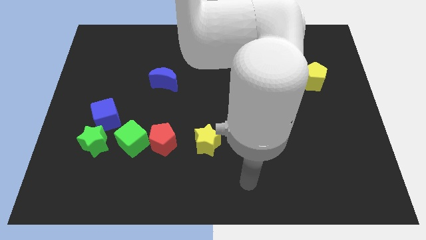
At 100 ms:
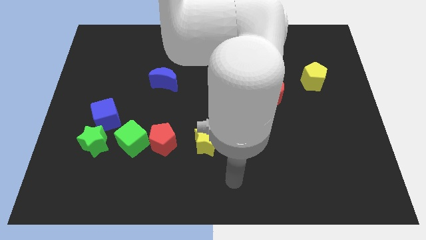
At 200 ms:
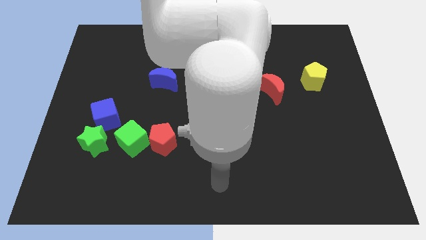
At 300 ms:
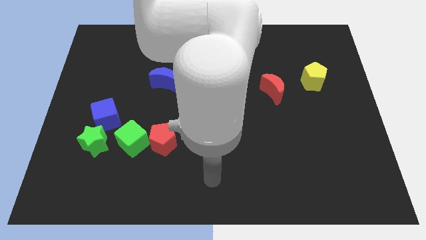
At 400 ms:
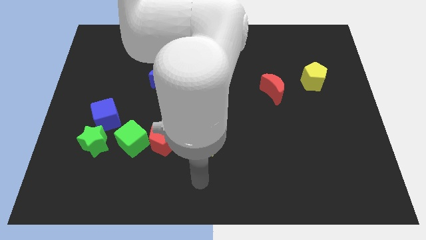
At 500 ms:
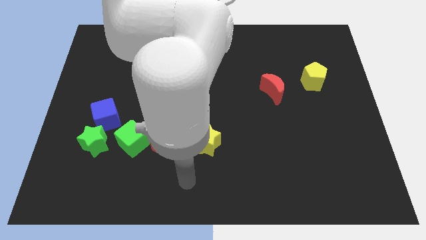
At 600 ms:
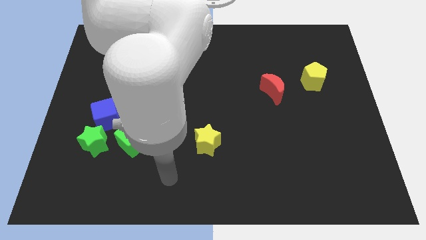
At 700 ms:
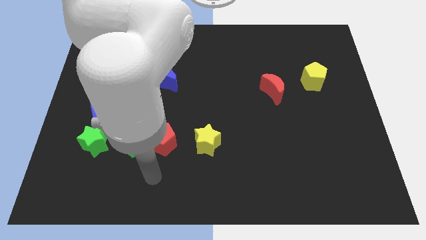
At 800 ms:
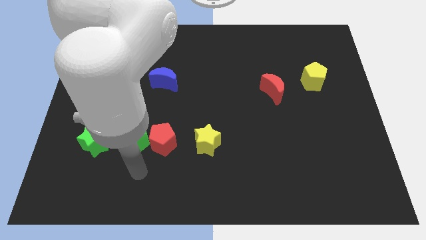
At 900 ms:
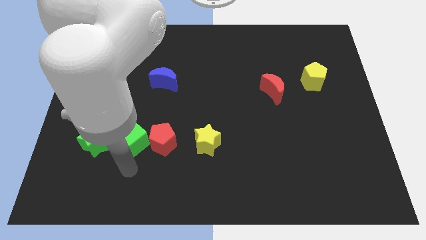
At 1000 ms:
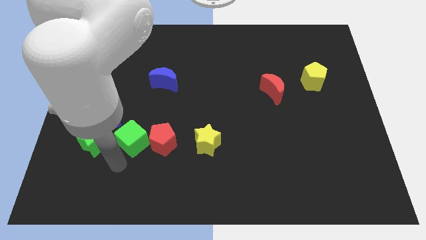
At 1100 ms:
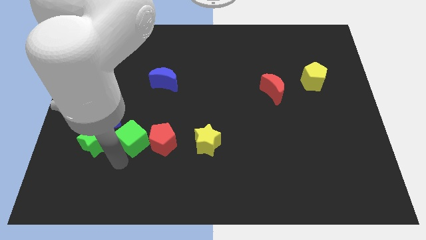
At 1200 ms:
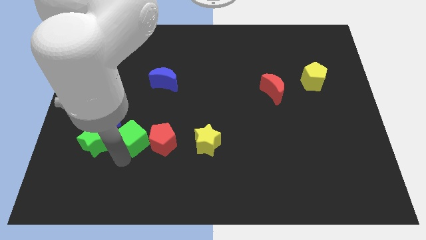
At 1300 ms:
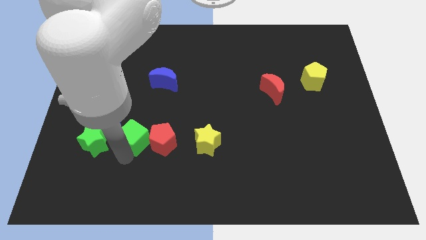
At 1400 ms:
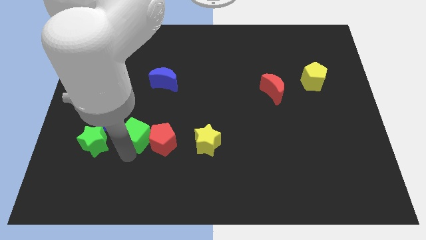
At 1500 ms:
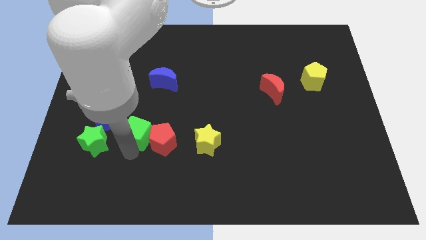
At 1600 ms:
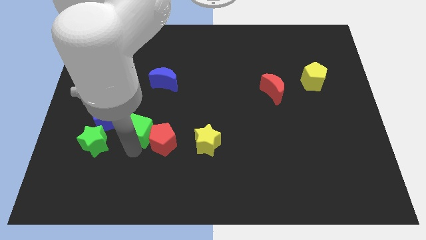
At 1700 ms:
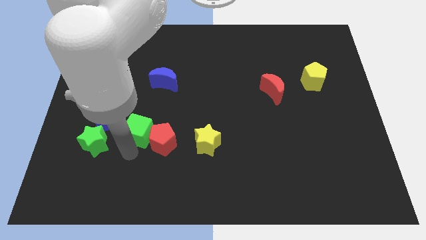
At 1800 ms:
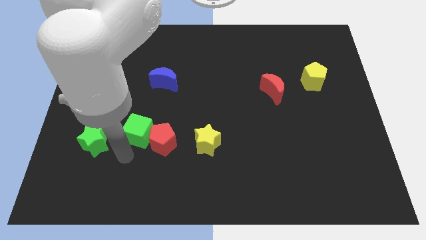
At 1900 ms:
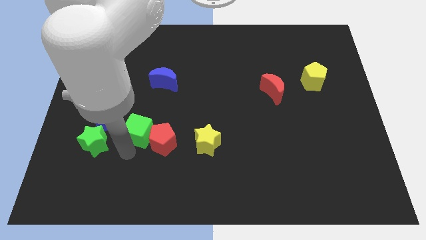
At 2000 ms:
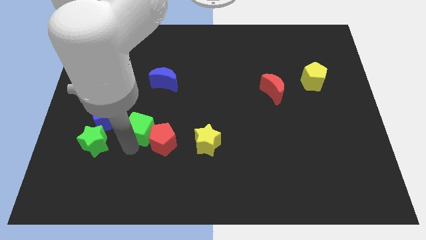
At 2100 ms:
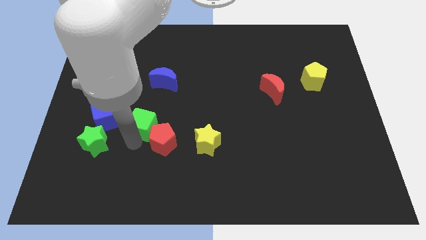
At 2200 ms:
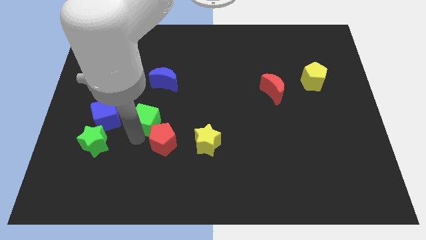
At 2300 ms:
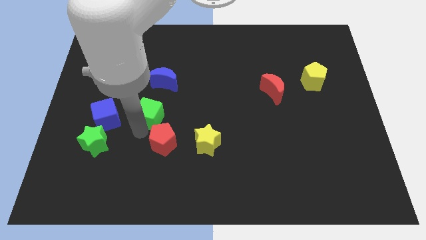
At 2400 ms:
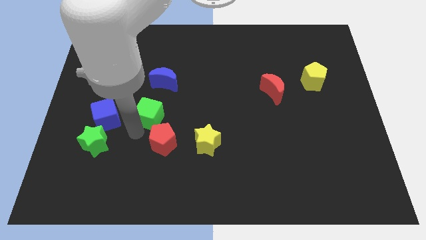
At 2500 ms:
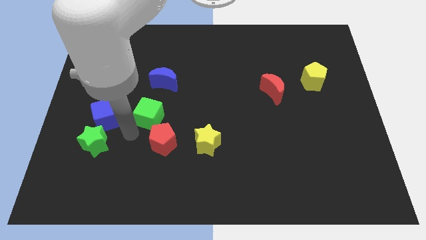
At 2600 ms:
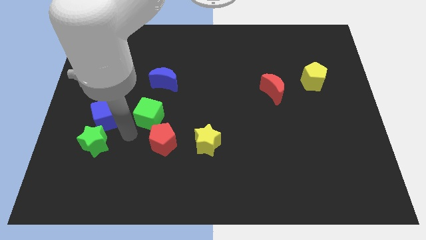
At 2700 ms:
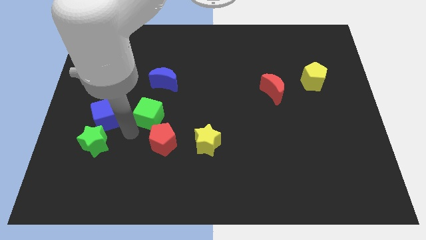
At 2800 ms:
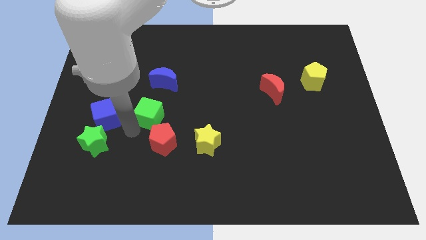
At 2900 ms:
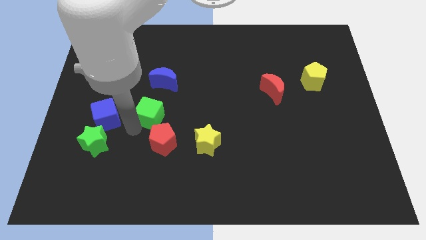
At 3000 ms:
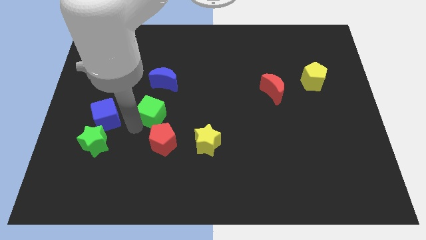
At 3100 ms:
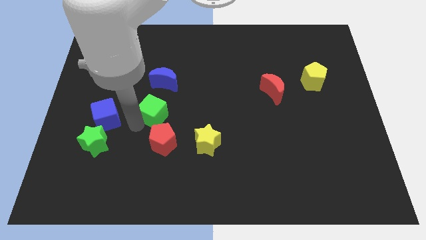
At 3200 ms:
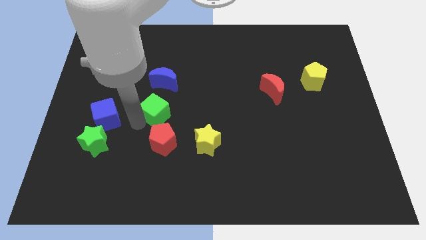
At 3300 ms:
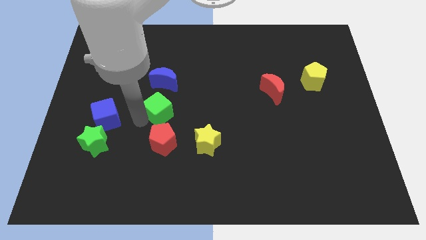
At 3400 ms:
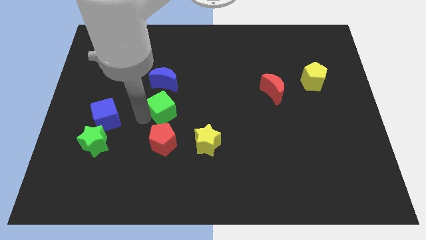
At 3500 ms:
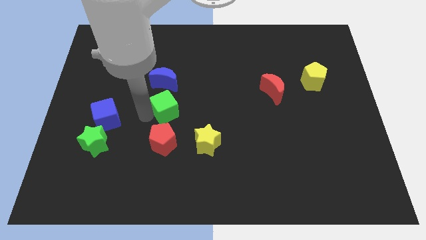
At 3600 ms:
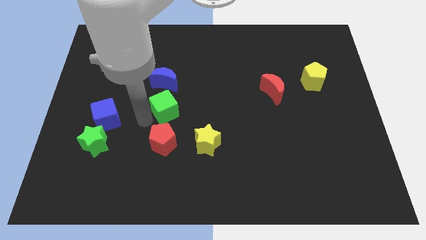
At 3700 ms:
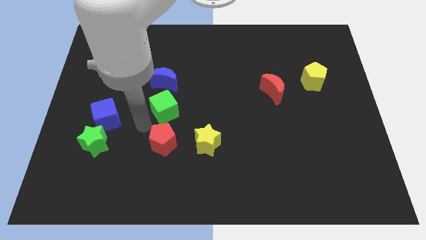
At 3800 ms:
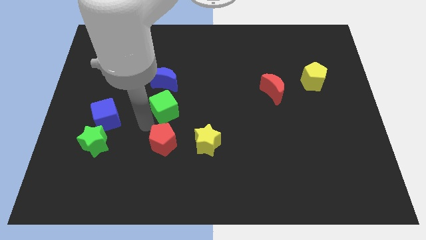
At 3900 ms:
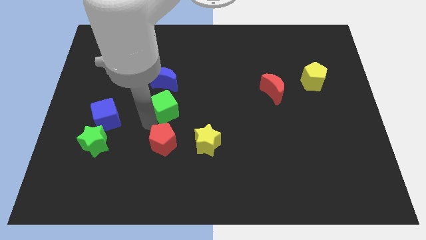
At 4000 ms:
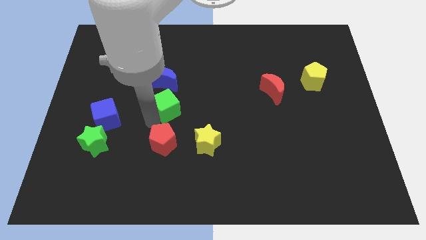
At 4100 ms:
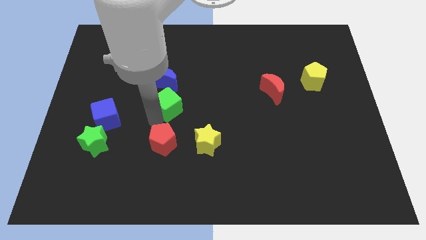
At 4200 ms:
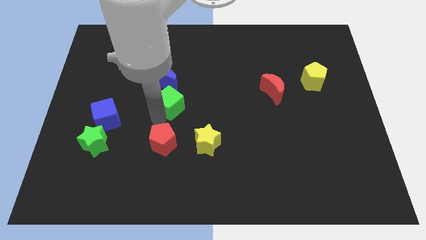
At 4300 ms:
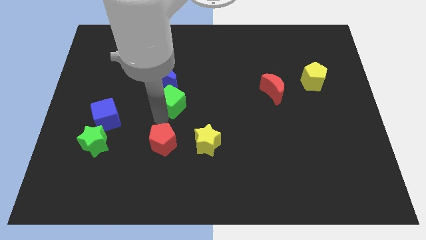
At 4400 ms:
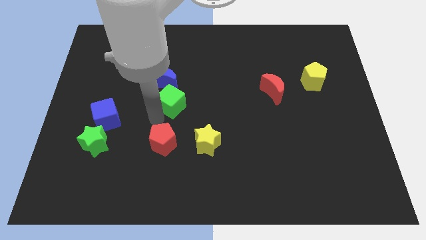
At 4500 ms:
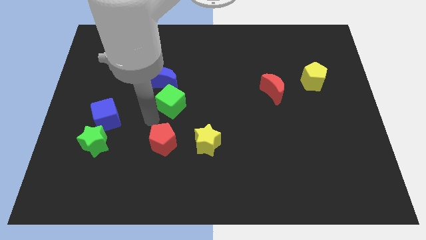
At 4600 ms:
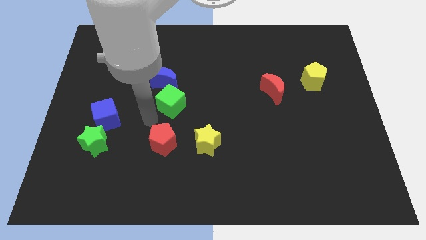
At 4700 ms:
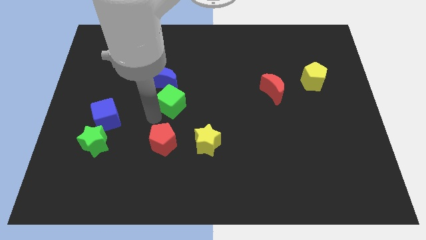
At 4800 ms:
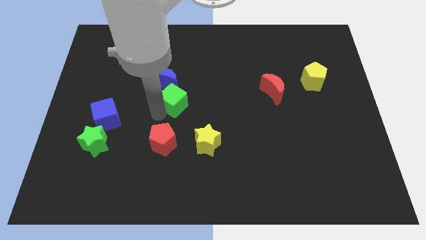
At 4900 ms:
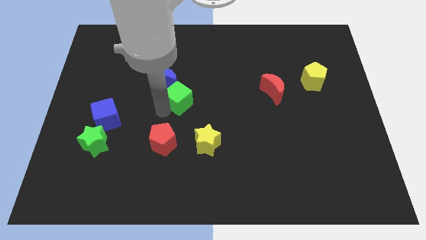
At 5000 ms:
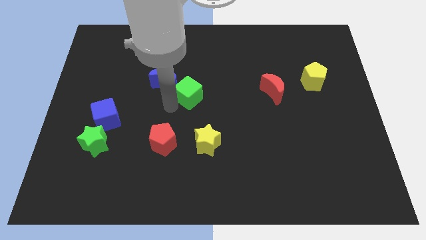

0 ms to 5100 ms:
put the green cube to the right side of the blue moon

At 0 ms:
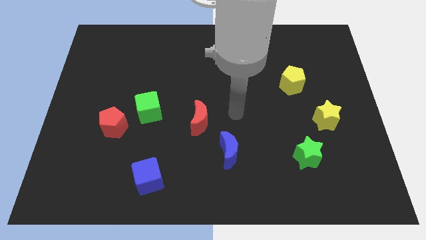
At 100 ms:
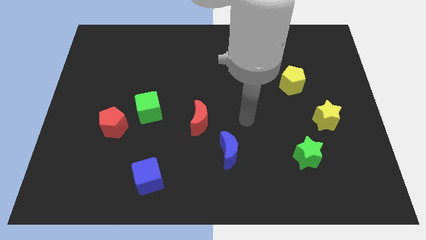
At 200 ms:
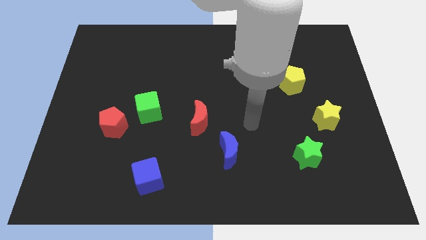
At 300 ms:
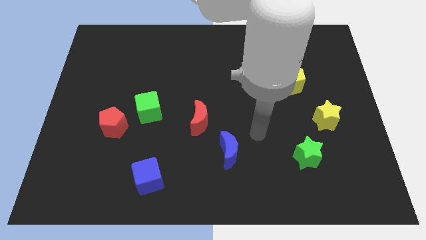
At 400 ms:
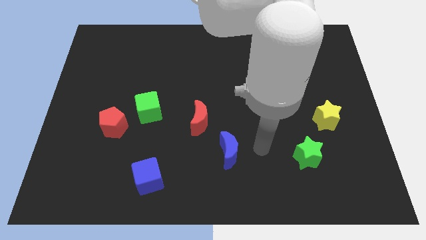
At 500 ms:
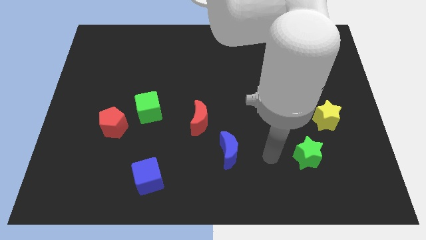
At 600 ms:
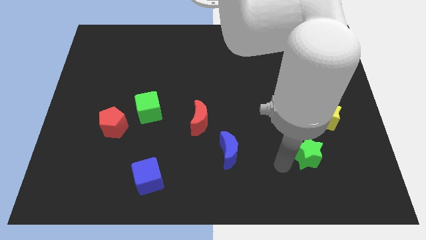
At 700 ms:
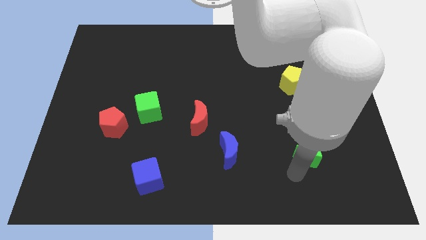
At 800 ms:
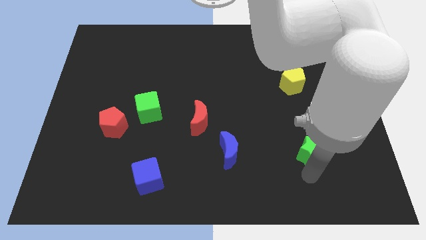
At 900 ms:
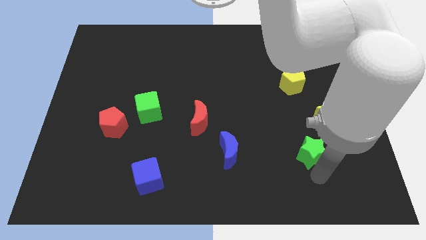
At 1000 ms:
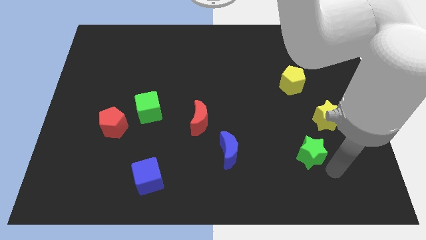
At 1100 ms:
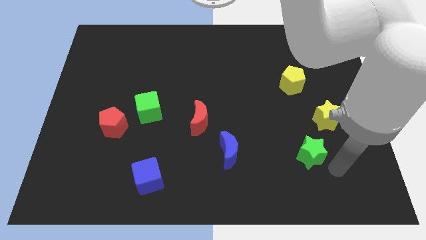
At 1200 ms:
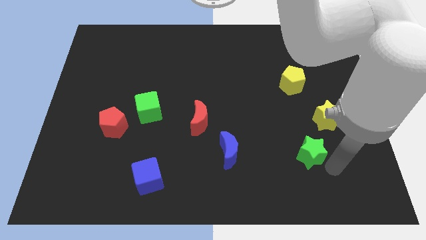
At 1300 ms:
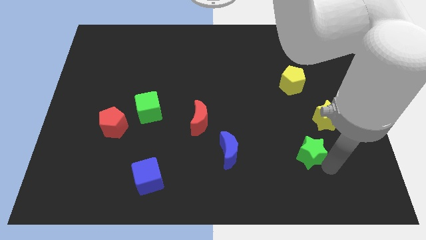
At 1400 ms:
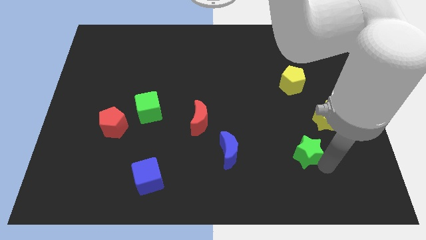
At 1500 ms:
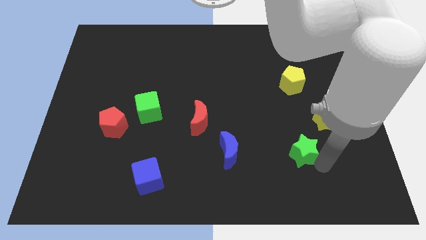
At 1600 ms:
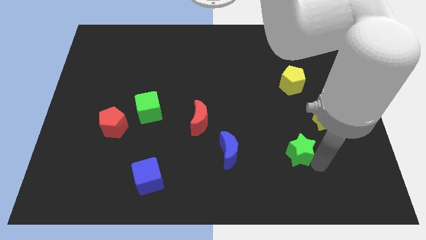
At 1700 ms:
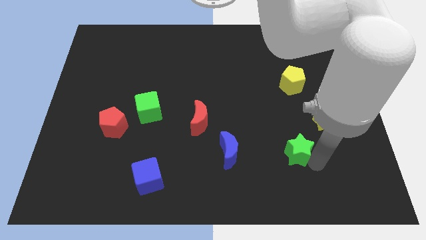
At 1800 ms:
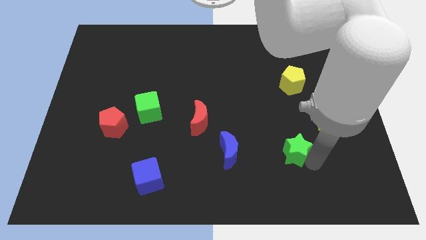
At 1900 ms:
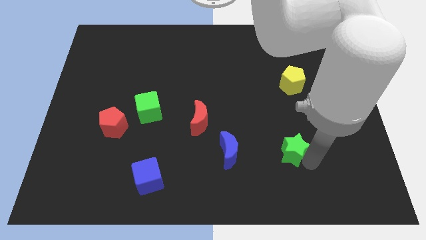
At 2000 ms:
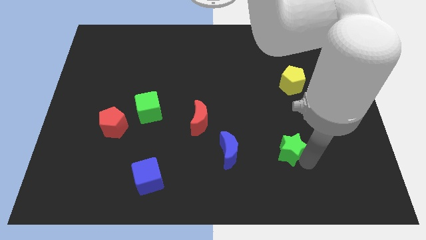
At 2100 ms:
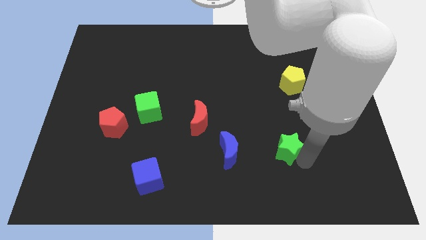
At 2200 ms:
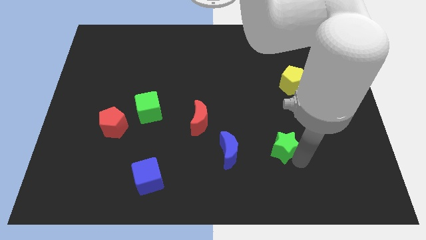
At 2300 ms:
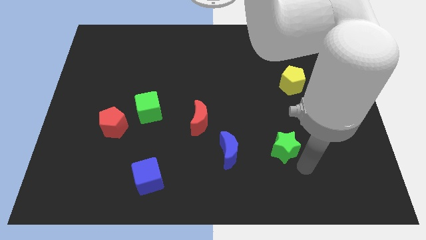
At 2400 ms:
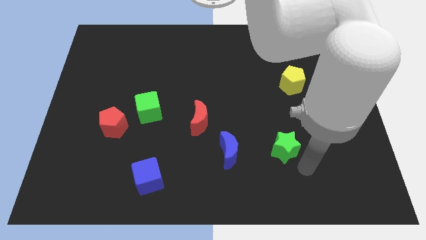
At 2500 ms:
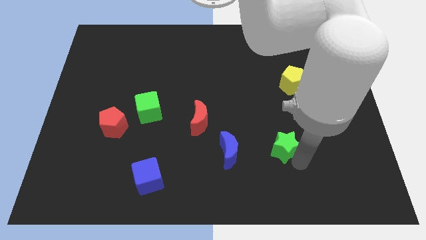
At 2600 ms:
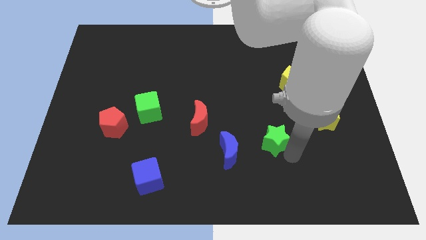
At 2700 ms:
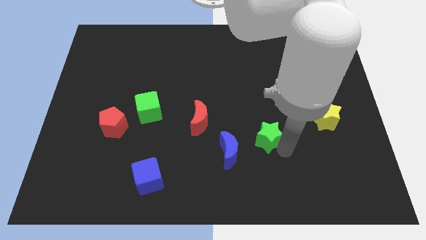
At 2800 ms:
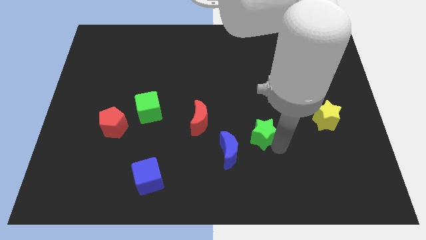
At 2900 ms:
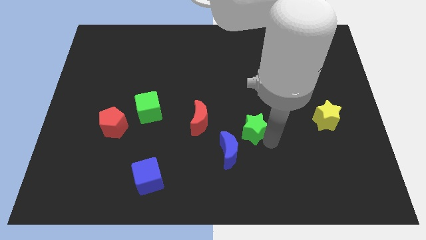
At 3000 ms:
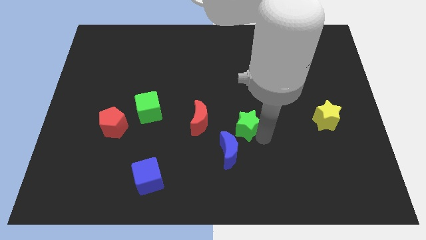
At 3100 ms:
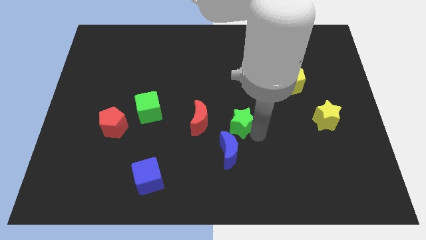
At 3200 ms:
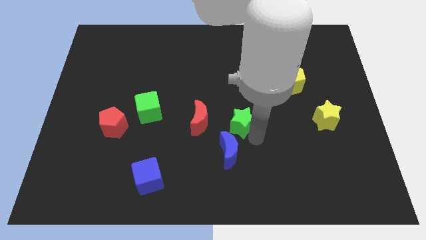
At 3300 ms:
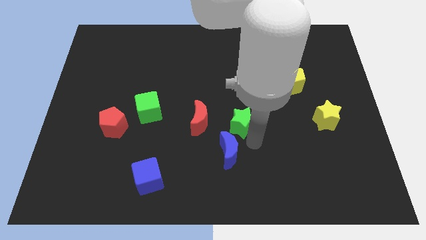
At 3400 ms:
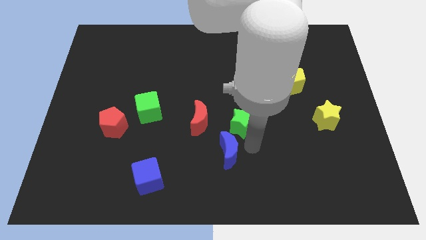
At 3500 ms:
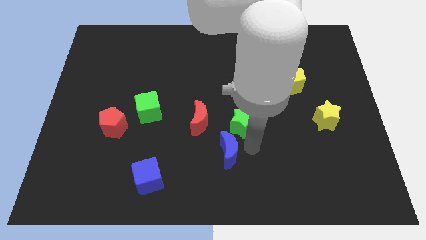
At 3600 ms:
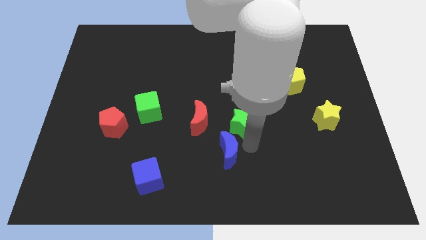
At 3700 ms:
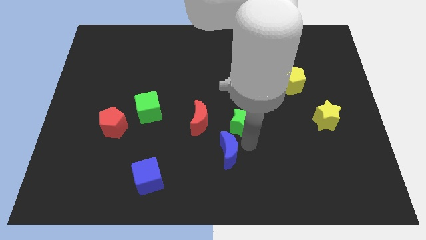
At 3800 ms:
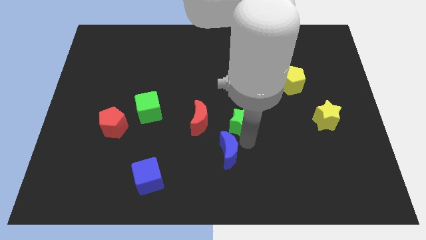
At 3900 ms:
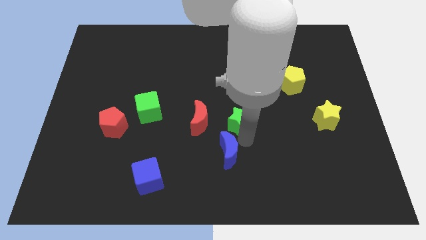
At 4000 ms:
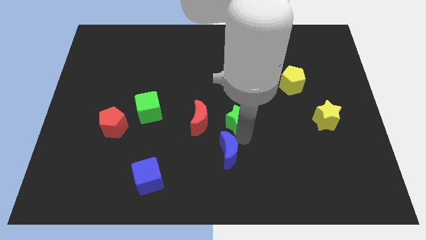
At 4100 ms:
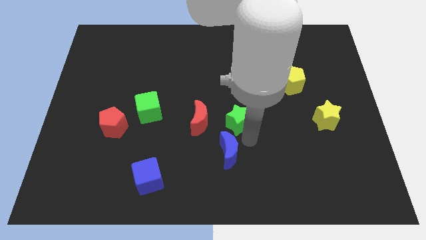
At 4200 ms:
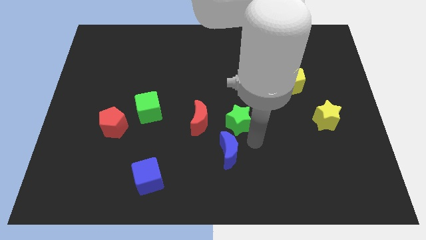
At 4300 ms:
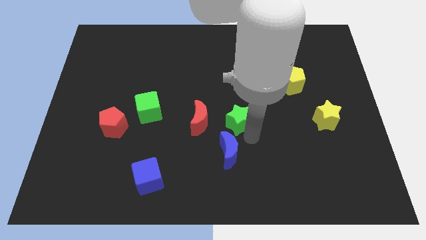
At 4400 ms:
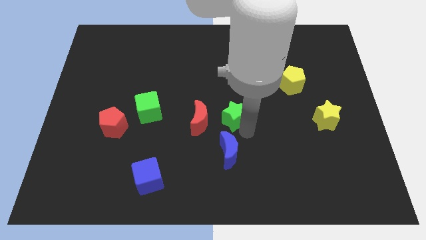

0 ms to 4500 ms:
slide the green star to the top right side of the red moon
